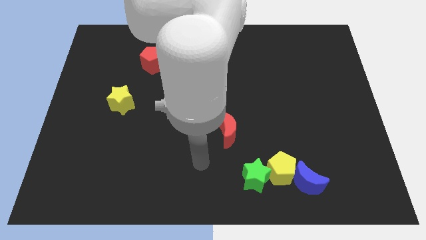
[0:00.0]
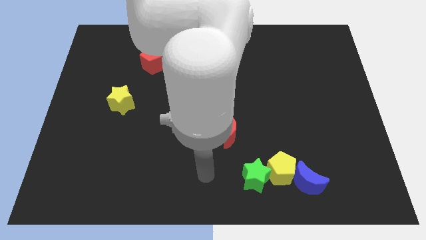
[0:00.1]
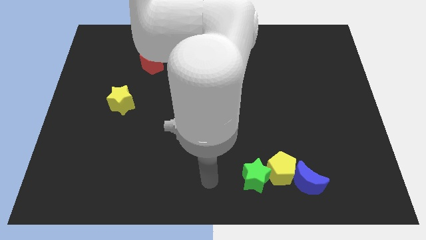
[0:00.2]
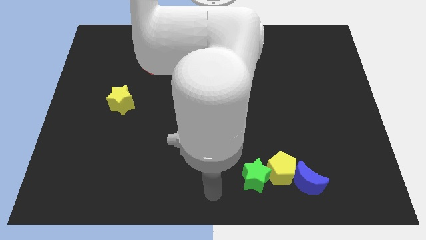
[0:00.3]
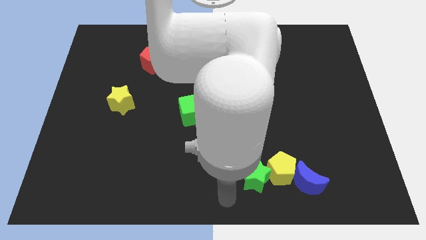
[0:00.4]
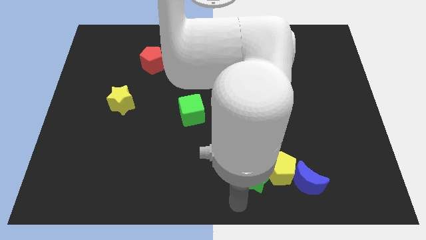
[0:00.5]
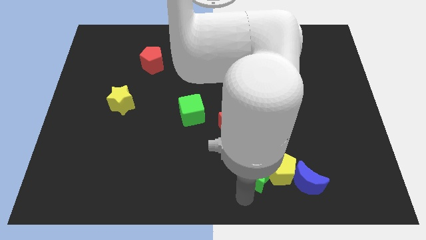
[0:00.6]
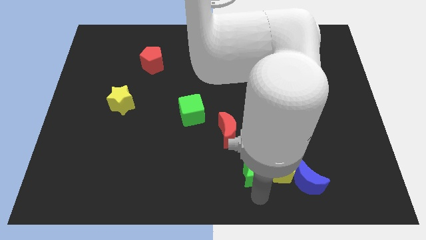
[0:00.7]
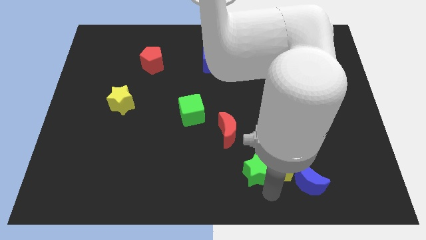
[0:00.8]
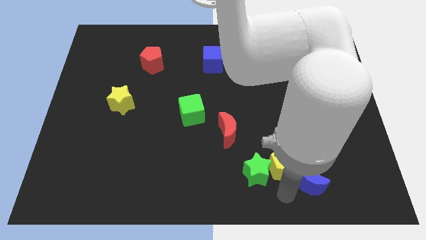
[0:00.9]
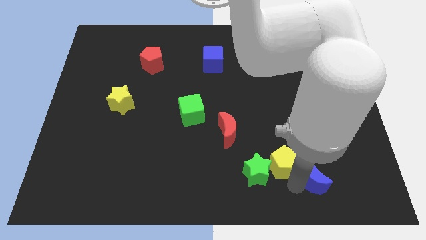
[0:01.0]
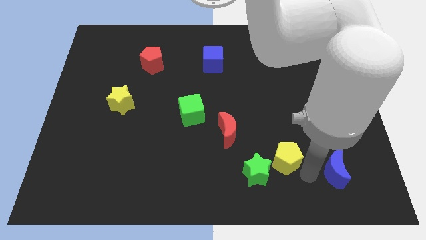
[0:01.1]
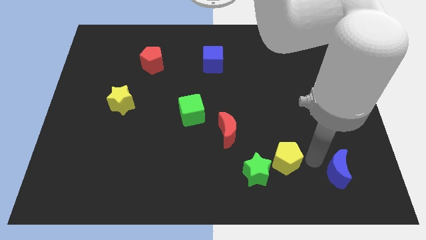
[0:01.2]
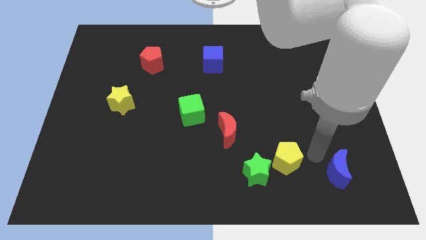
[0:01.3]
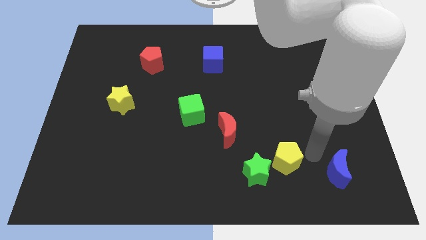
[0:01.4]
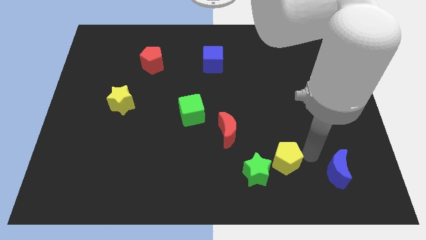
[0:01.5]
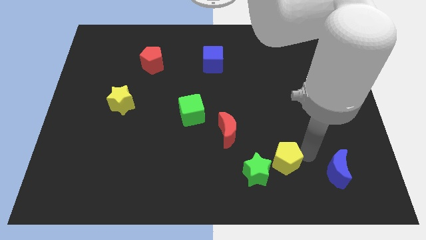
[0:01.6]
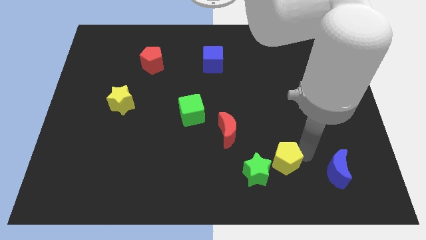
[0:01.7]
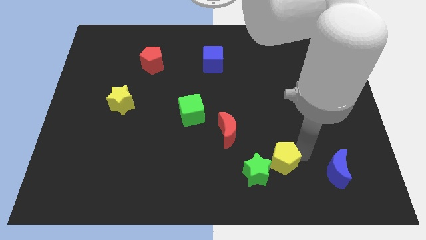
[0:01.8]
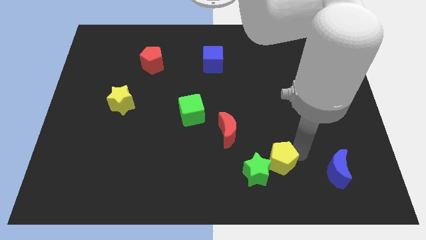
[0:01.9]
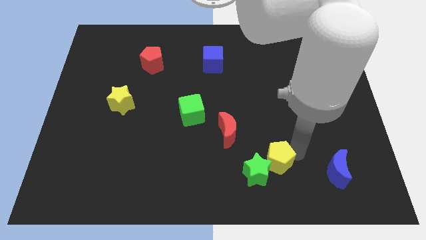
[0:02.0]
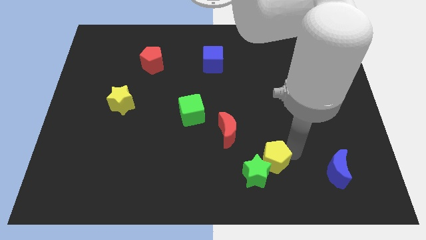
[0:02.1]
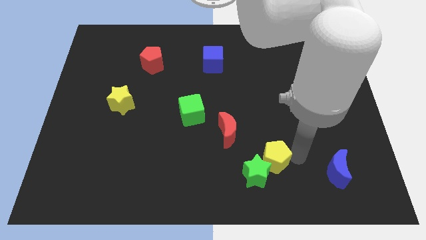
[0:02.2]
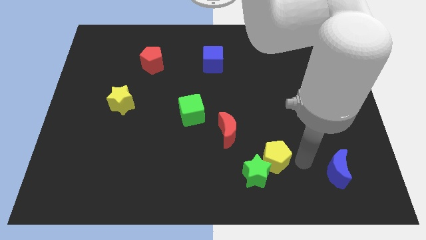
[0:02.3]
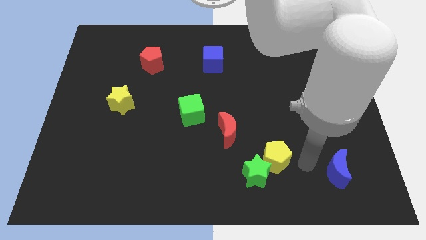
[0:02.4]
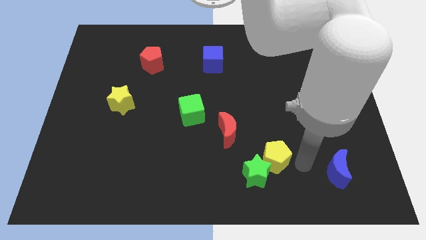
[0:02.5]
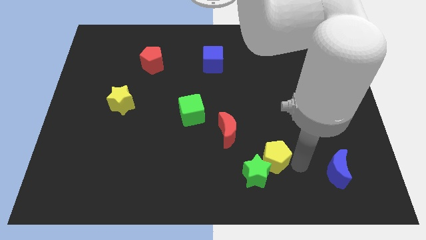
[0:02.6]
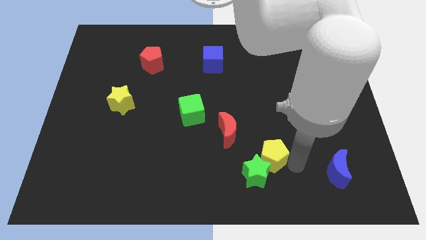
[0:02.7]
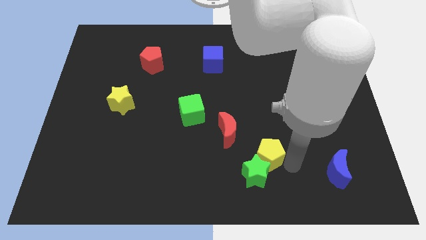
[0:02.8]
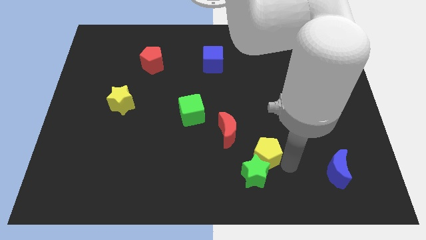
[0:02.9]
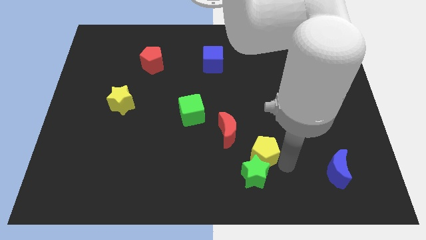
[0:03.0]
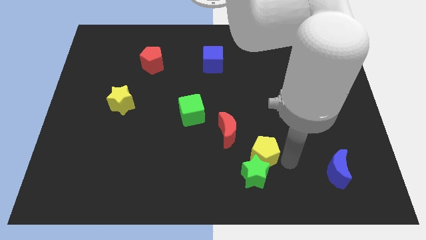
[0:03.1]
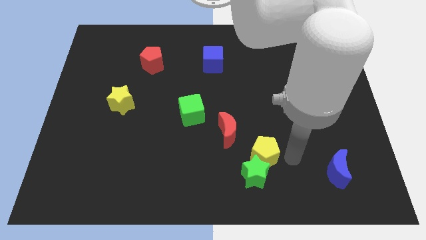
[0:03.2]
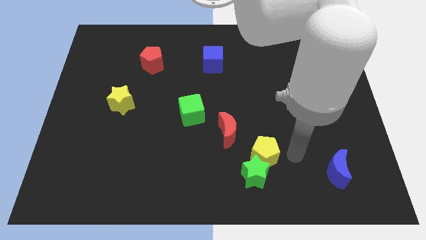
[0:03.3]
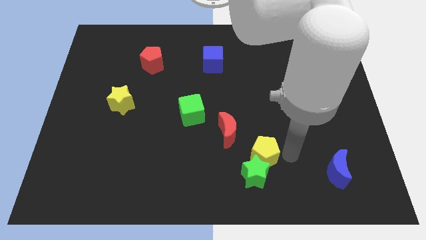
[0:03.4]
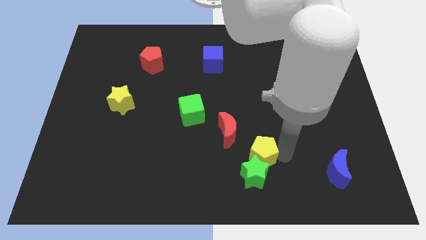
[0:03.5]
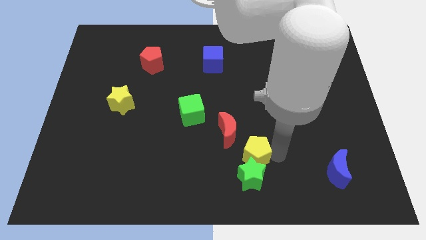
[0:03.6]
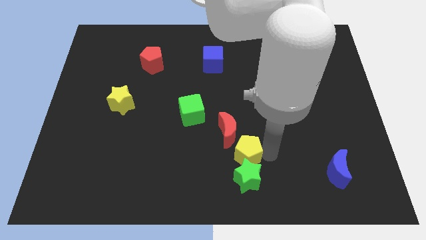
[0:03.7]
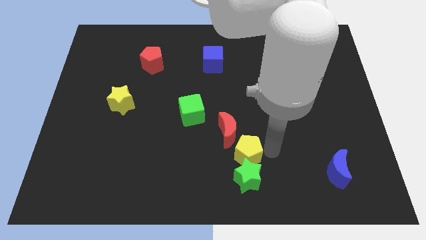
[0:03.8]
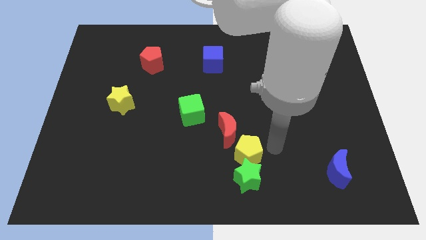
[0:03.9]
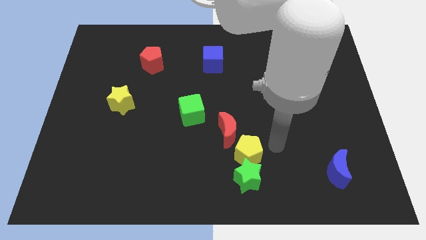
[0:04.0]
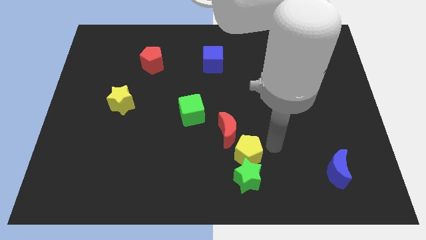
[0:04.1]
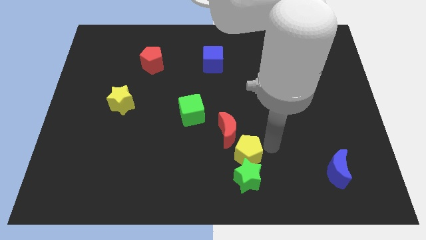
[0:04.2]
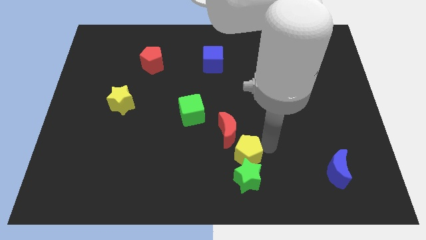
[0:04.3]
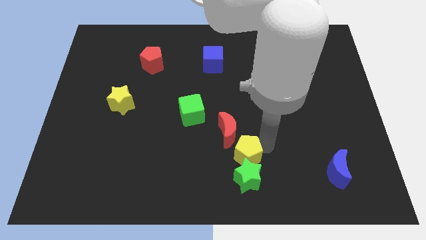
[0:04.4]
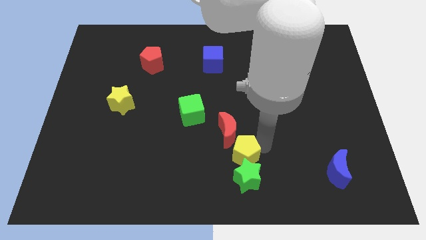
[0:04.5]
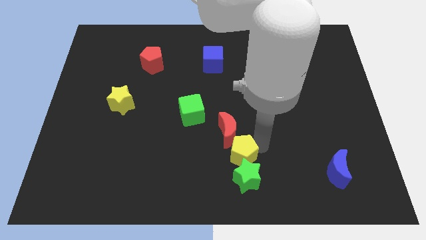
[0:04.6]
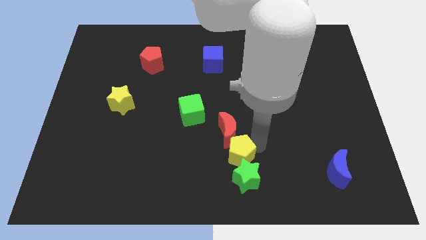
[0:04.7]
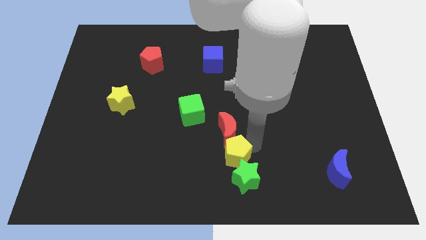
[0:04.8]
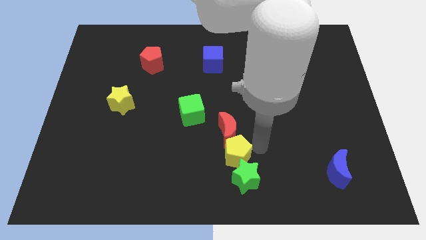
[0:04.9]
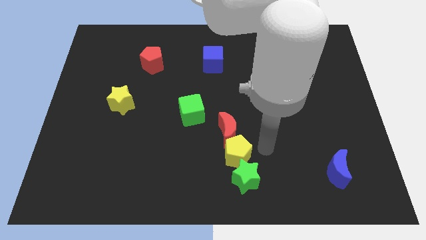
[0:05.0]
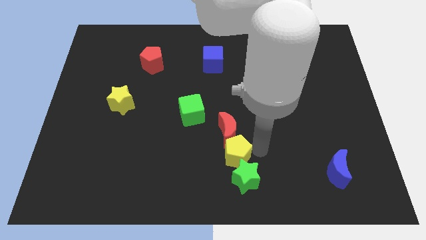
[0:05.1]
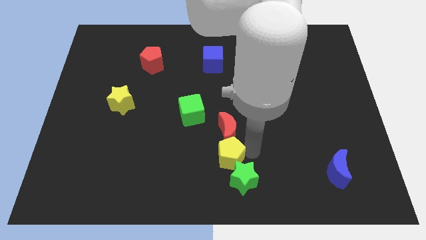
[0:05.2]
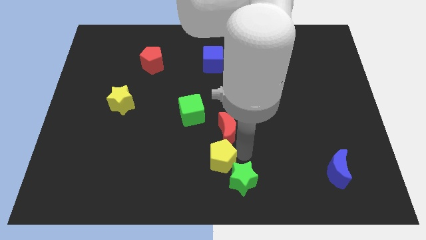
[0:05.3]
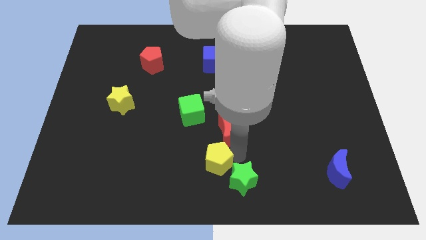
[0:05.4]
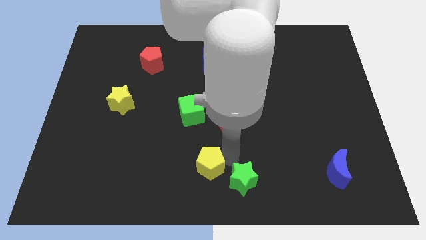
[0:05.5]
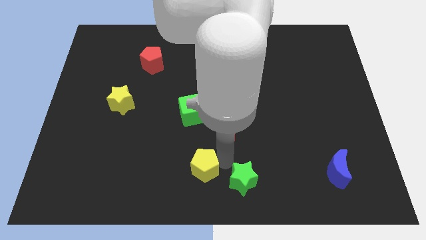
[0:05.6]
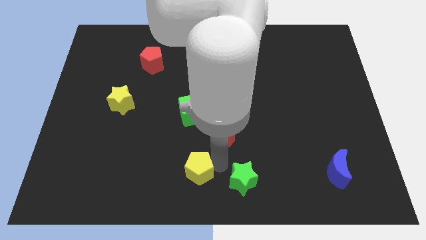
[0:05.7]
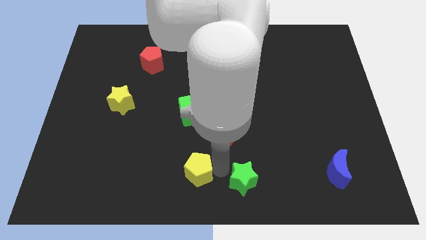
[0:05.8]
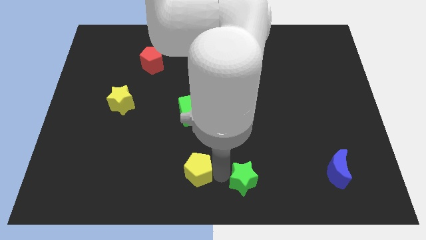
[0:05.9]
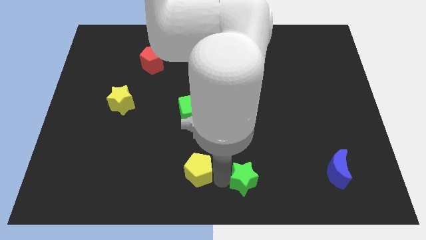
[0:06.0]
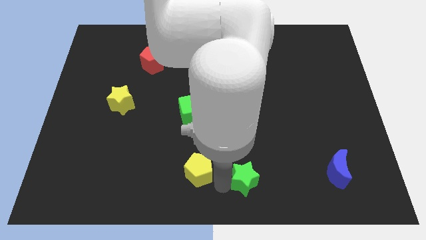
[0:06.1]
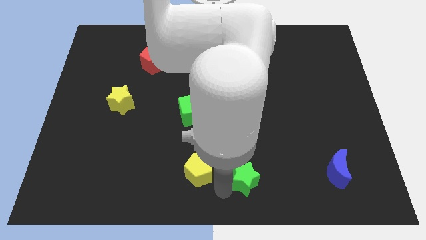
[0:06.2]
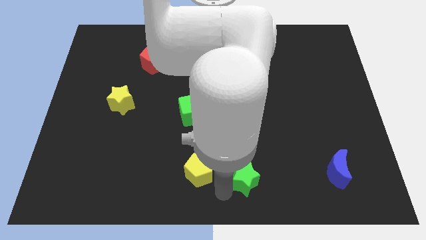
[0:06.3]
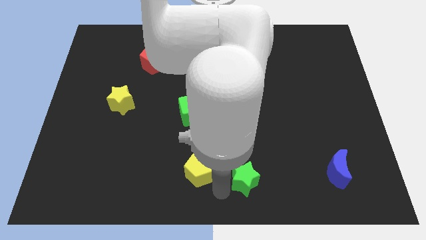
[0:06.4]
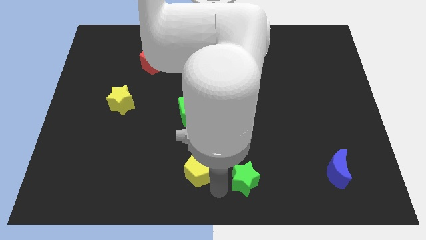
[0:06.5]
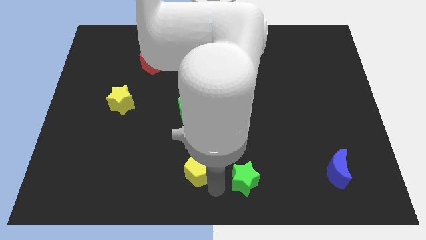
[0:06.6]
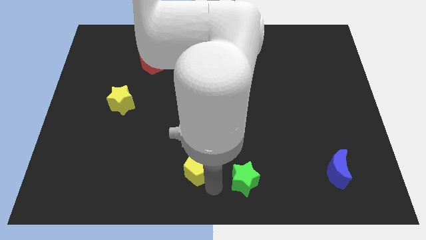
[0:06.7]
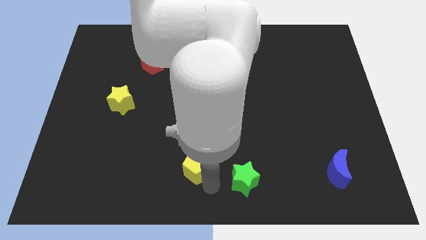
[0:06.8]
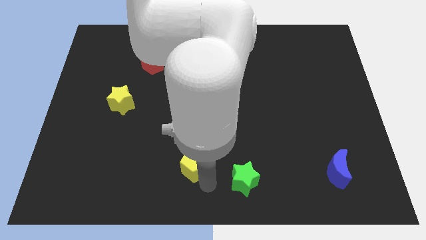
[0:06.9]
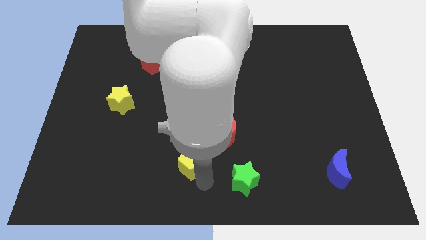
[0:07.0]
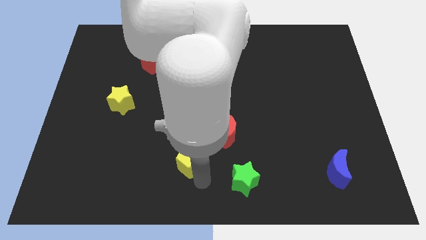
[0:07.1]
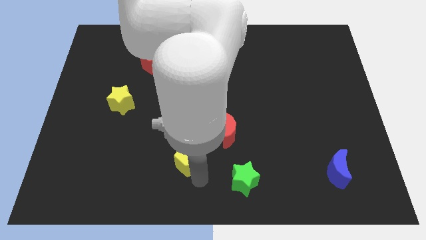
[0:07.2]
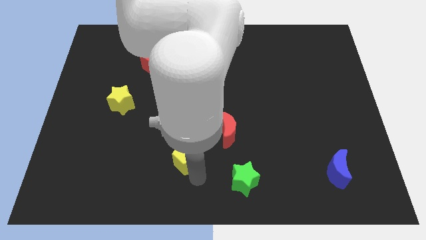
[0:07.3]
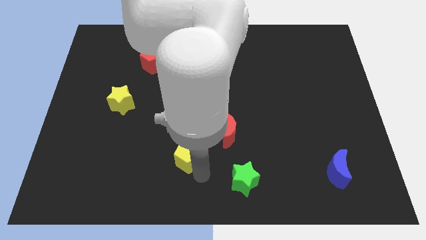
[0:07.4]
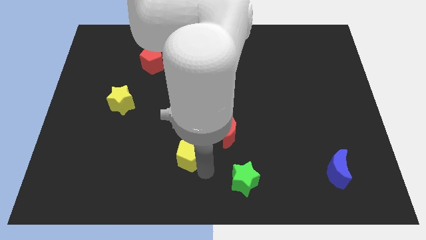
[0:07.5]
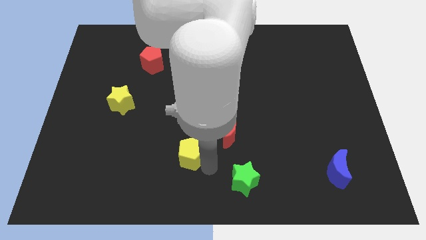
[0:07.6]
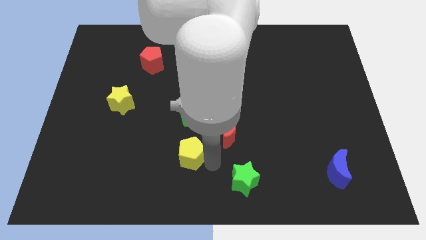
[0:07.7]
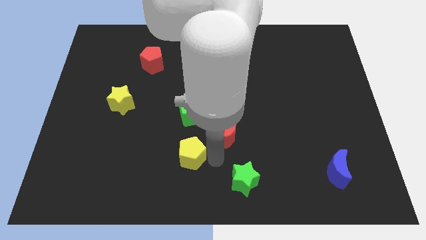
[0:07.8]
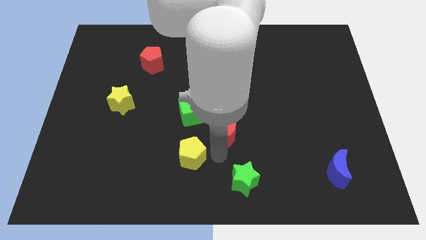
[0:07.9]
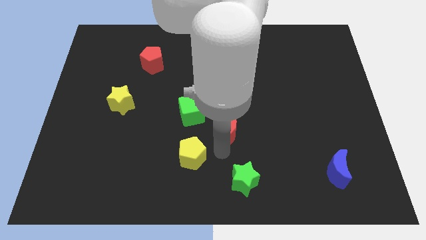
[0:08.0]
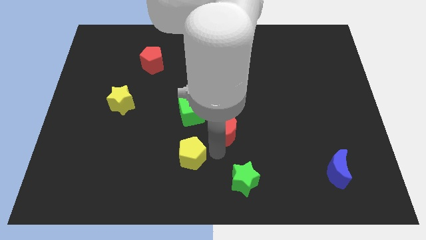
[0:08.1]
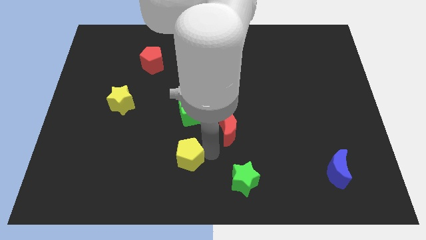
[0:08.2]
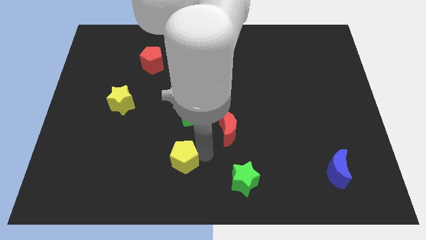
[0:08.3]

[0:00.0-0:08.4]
move the yellow pentagon to the left
